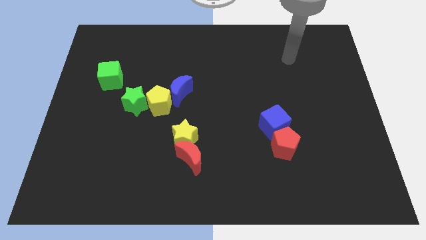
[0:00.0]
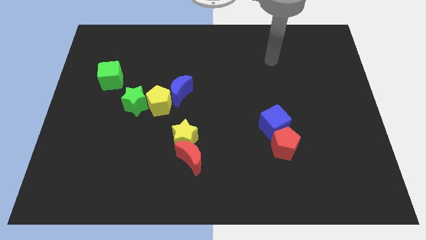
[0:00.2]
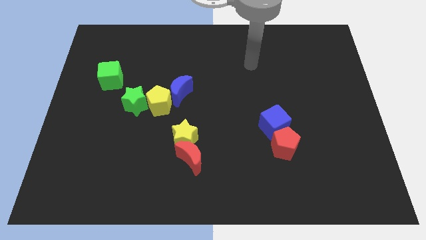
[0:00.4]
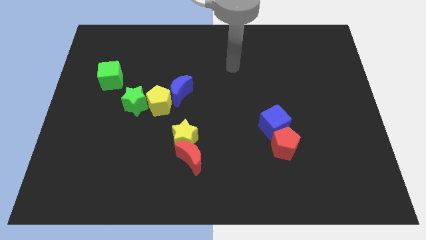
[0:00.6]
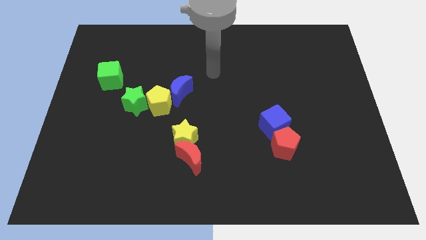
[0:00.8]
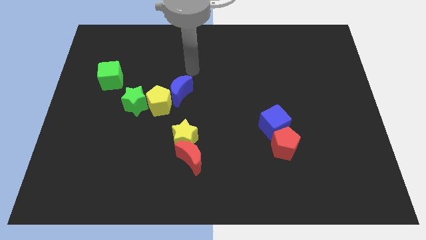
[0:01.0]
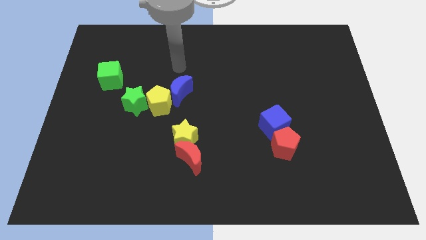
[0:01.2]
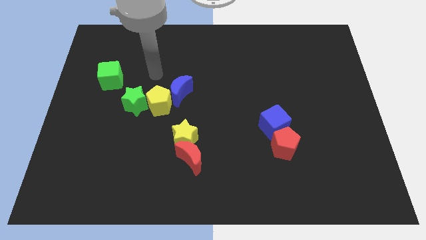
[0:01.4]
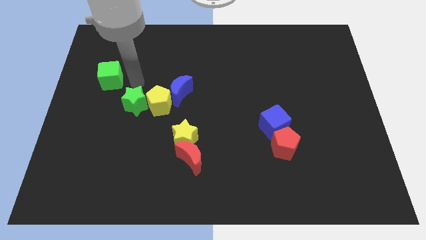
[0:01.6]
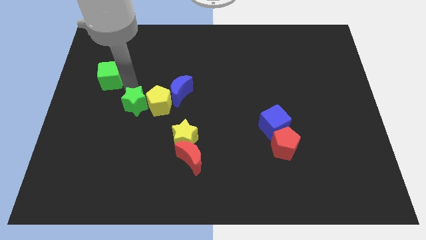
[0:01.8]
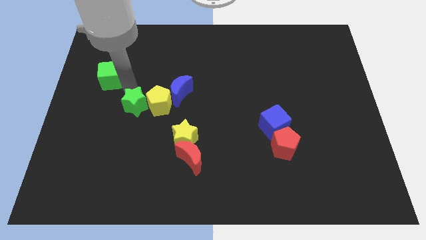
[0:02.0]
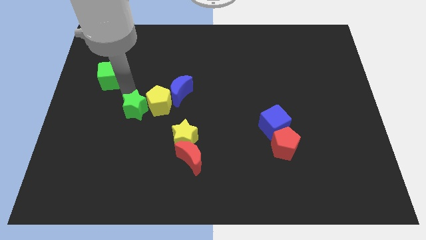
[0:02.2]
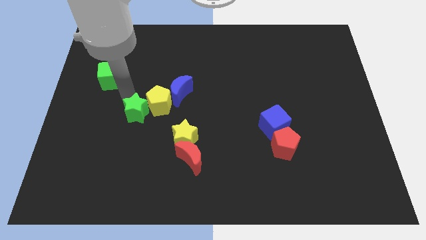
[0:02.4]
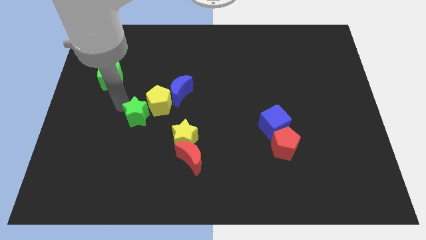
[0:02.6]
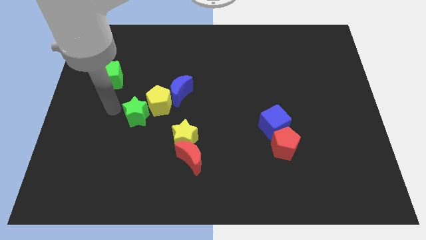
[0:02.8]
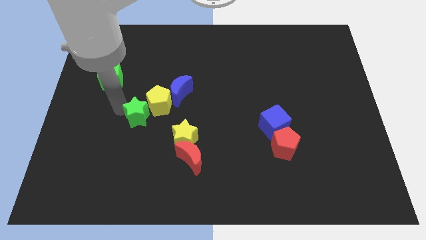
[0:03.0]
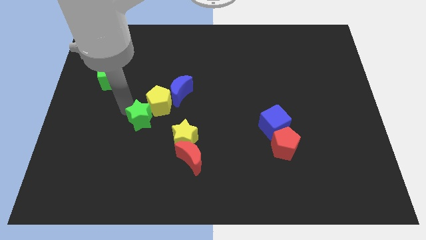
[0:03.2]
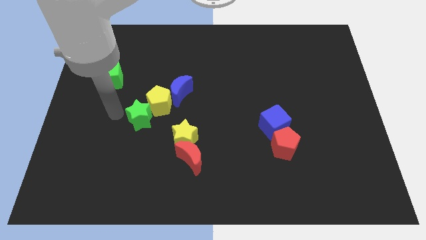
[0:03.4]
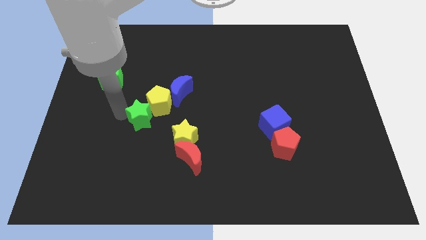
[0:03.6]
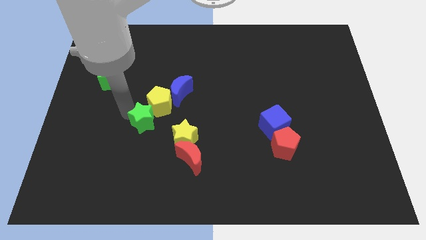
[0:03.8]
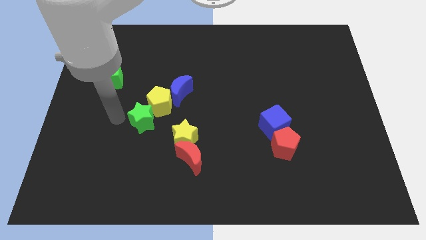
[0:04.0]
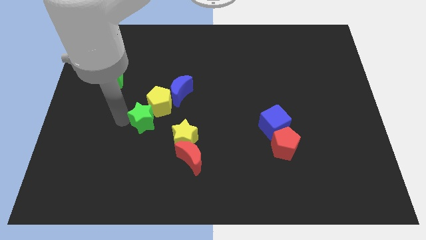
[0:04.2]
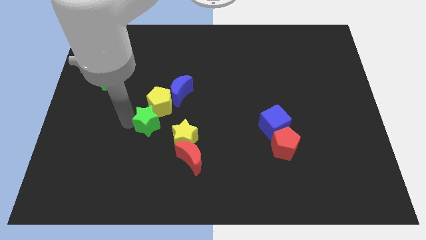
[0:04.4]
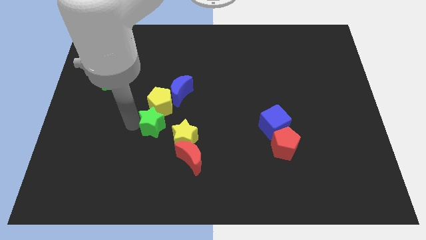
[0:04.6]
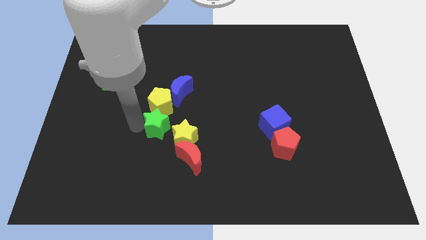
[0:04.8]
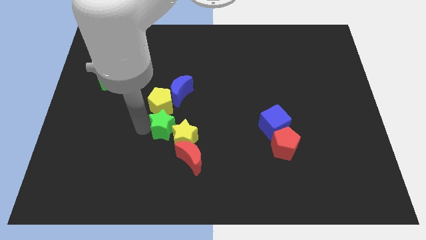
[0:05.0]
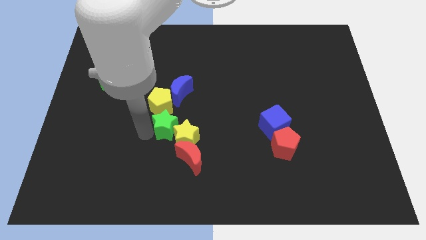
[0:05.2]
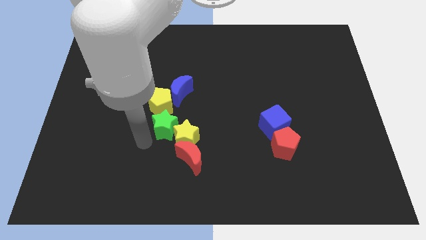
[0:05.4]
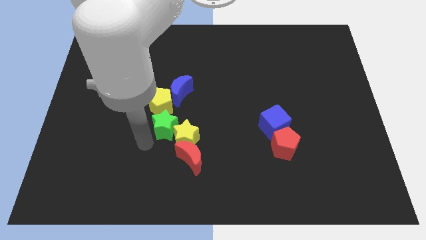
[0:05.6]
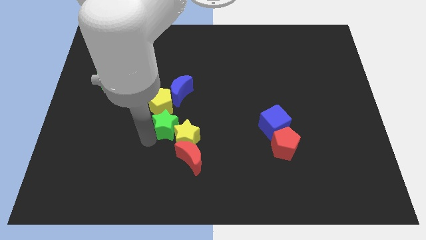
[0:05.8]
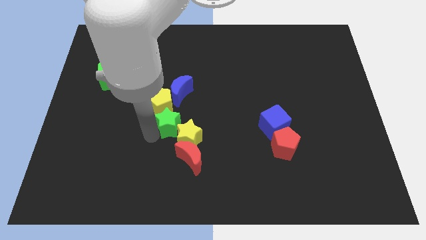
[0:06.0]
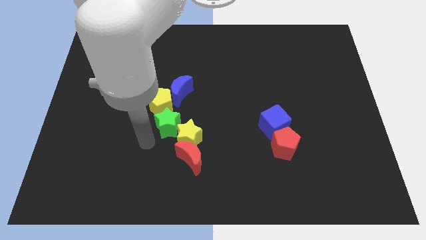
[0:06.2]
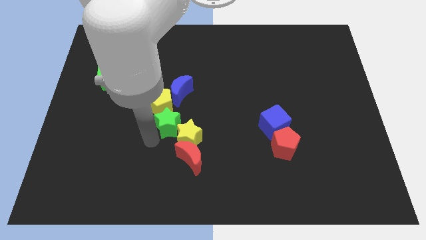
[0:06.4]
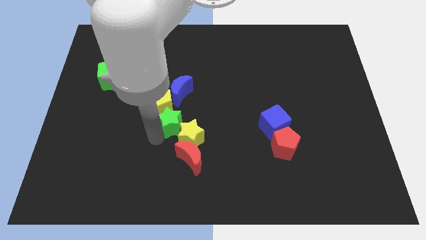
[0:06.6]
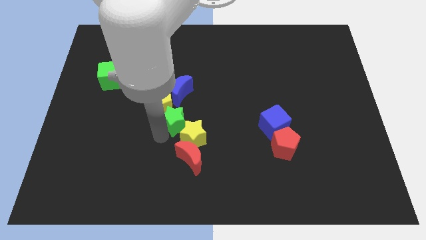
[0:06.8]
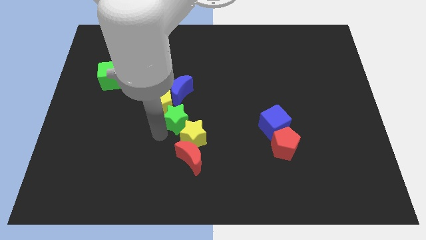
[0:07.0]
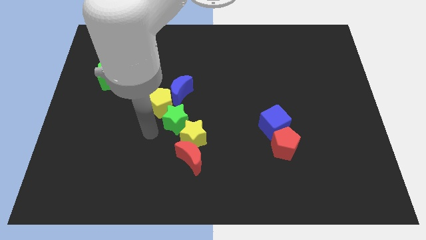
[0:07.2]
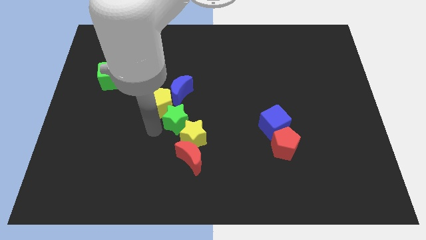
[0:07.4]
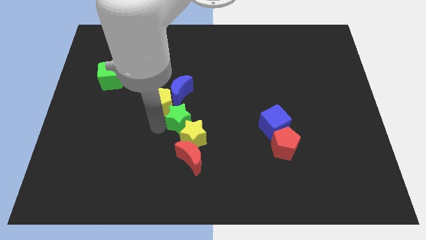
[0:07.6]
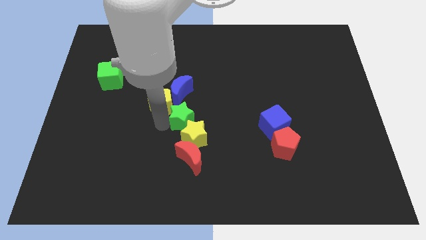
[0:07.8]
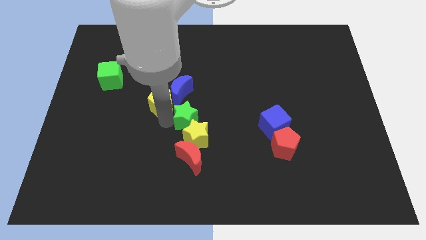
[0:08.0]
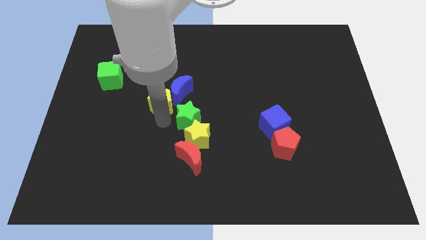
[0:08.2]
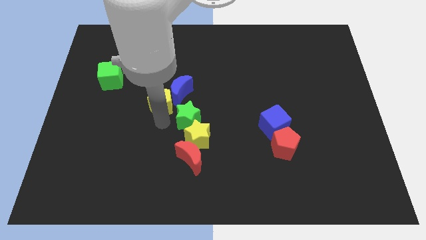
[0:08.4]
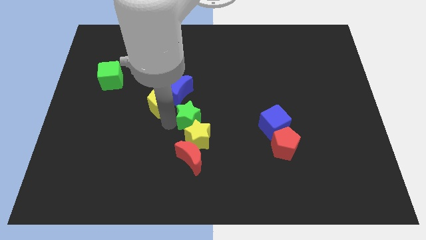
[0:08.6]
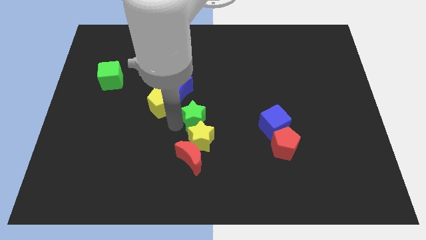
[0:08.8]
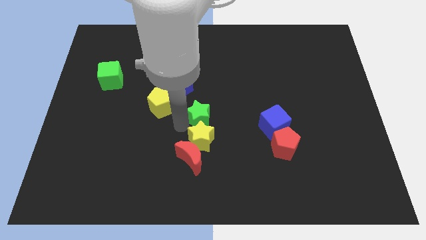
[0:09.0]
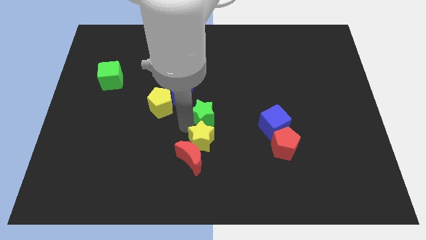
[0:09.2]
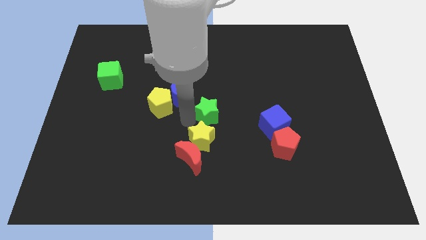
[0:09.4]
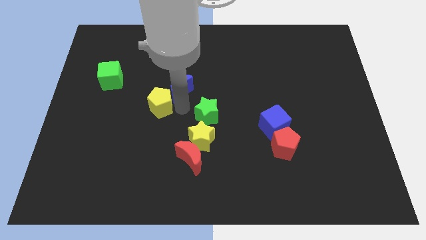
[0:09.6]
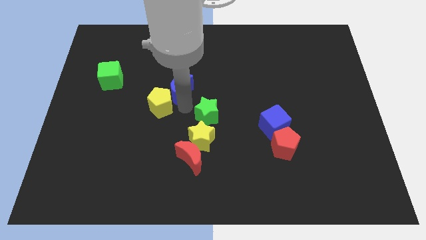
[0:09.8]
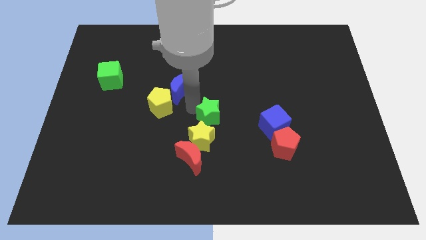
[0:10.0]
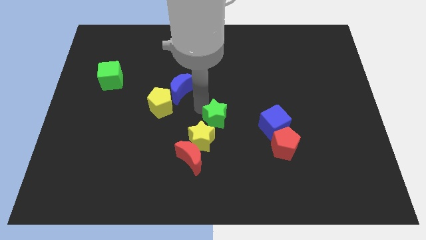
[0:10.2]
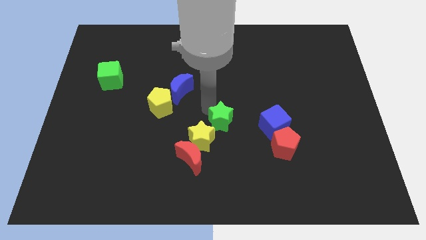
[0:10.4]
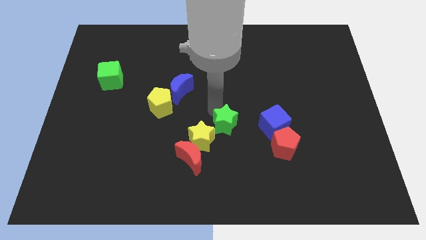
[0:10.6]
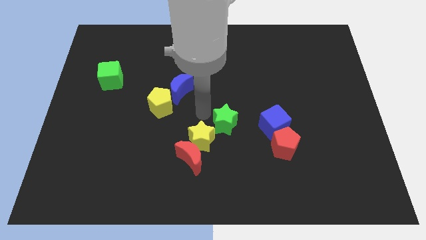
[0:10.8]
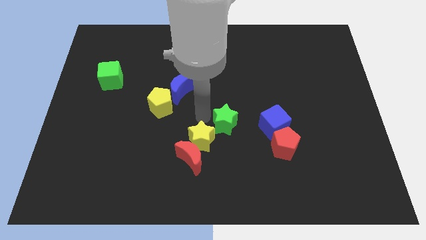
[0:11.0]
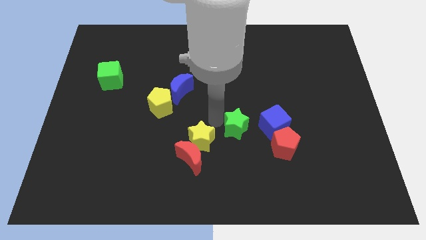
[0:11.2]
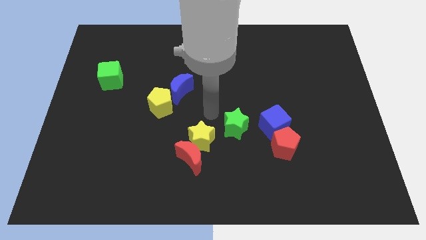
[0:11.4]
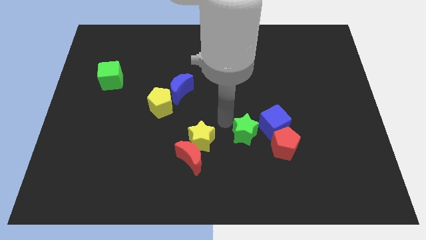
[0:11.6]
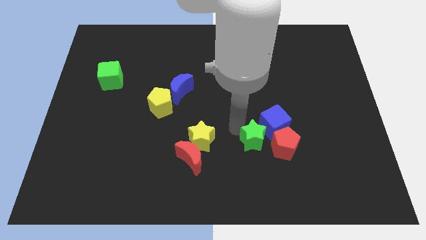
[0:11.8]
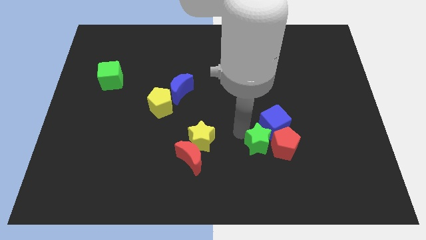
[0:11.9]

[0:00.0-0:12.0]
put the green star close to the red pentagon

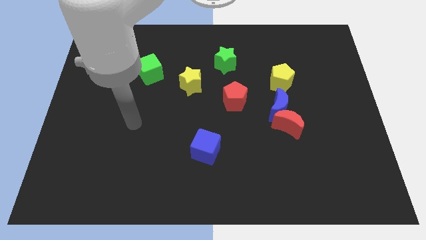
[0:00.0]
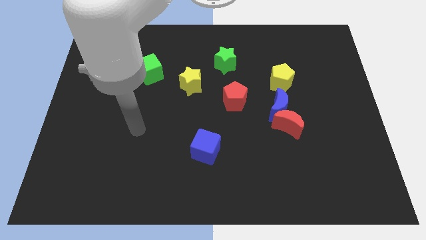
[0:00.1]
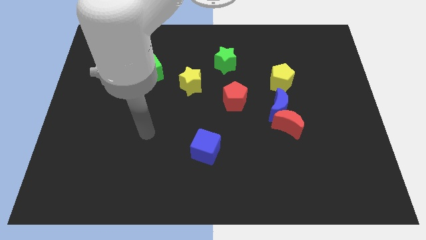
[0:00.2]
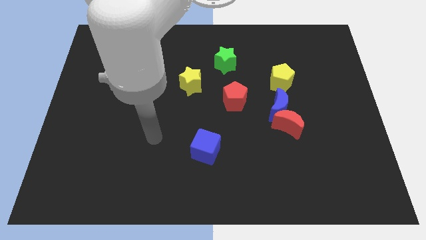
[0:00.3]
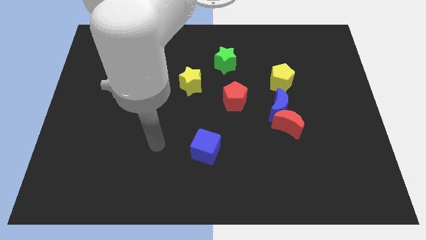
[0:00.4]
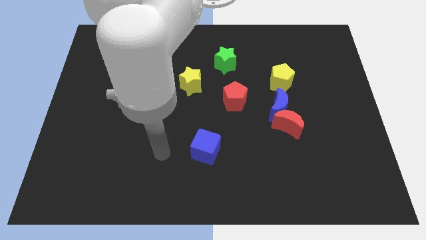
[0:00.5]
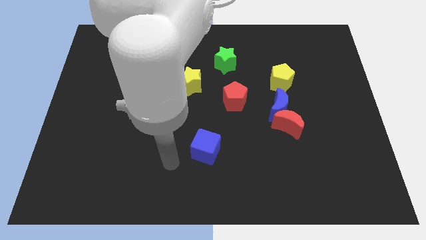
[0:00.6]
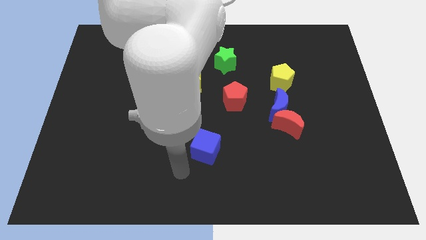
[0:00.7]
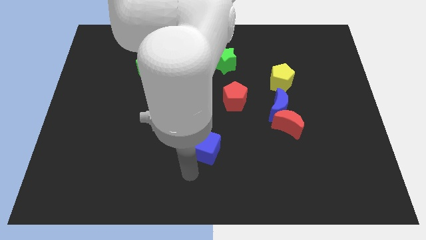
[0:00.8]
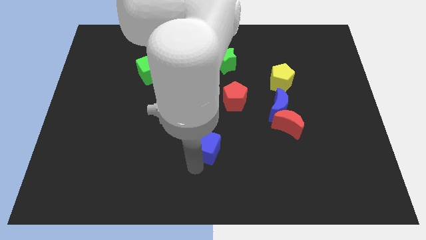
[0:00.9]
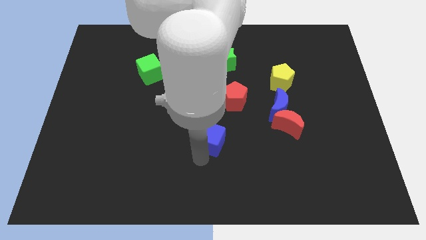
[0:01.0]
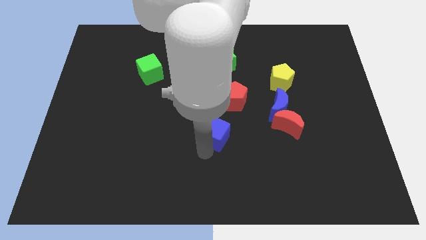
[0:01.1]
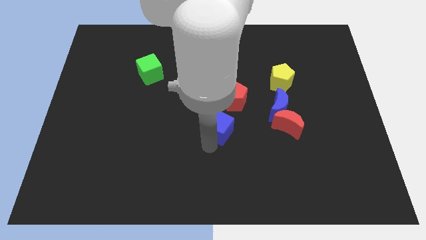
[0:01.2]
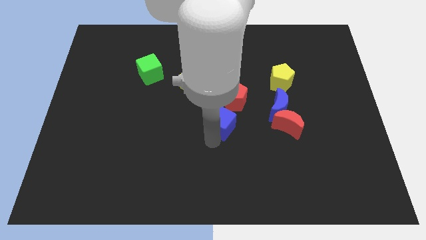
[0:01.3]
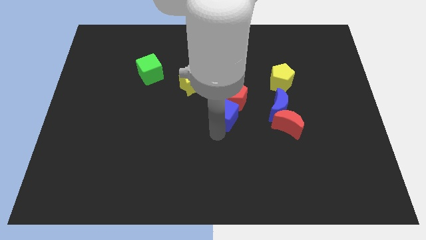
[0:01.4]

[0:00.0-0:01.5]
put the blue cube towards the red pentagon
